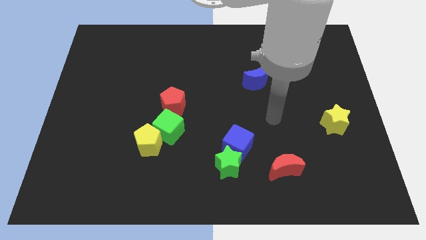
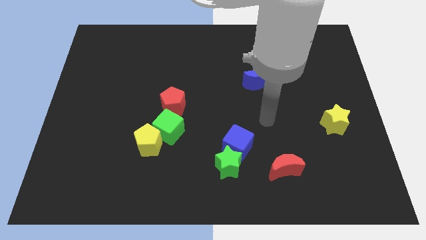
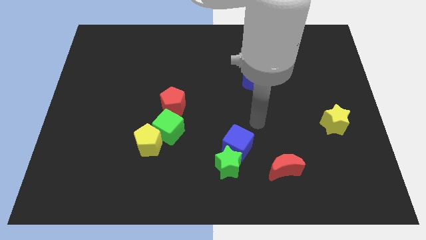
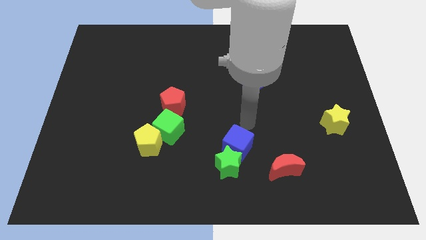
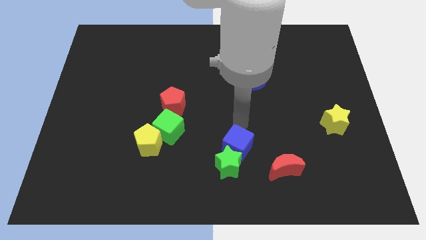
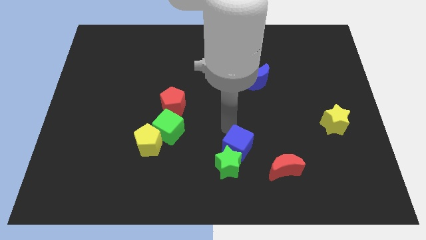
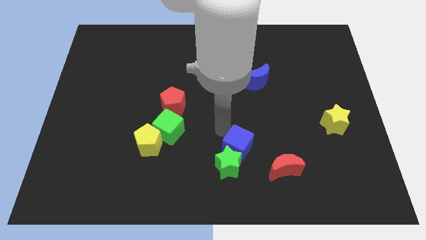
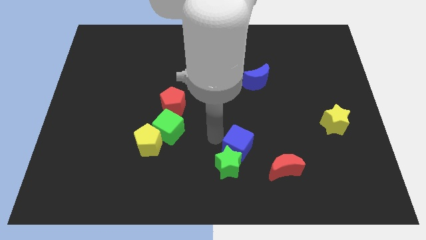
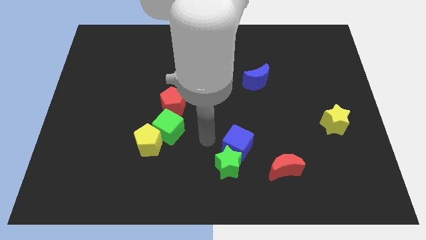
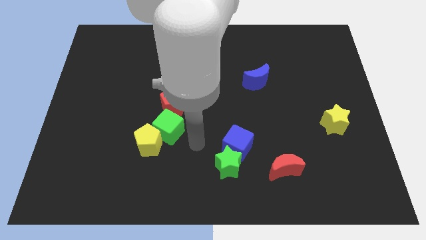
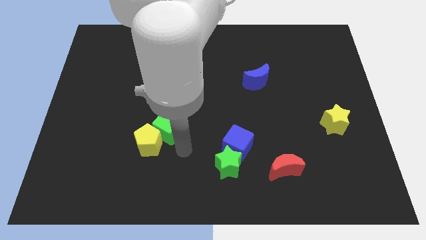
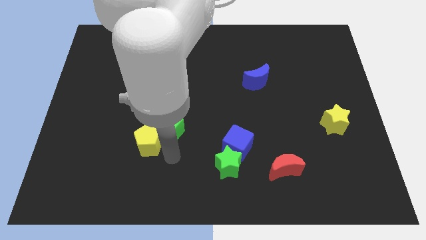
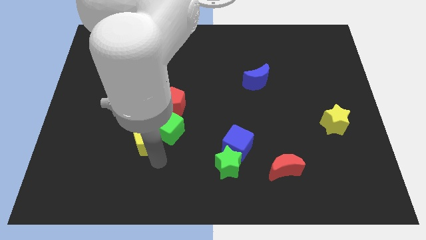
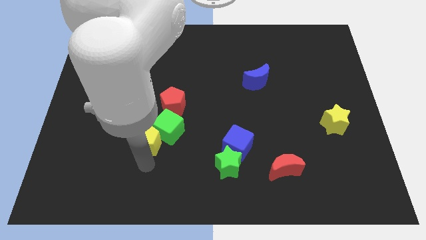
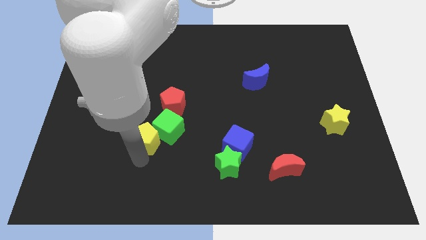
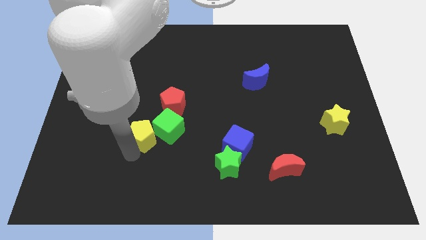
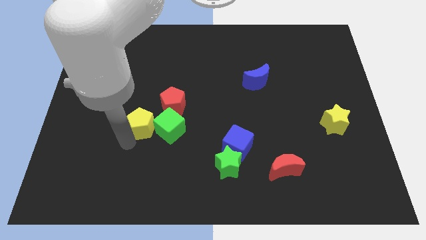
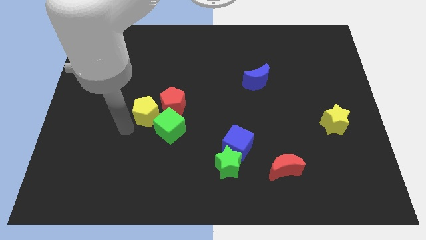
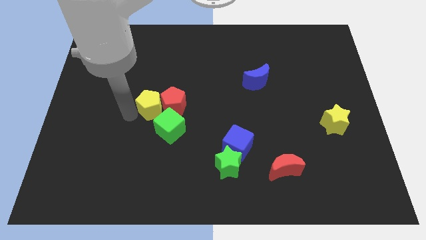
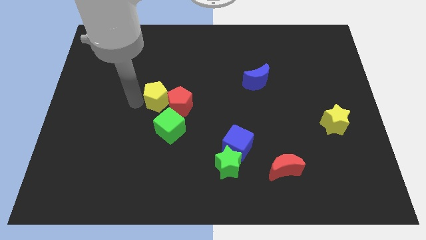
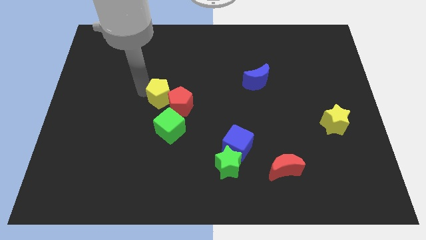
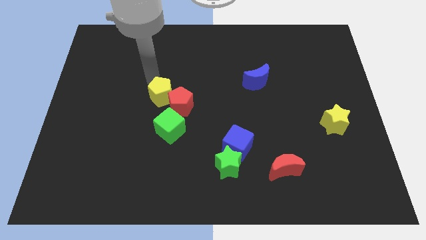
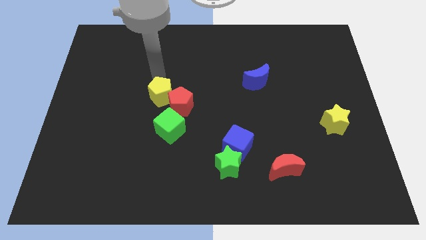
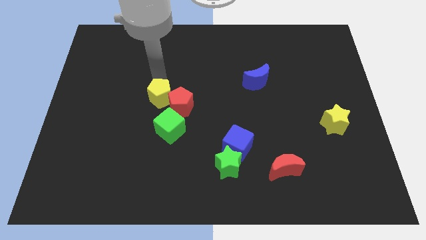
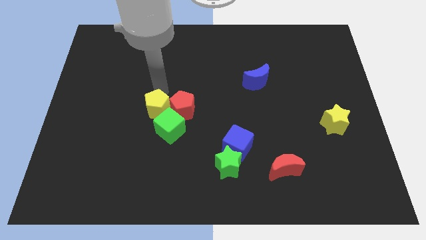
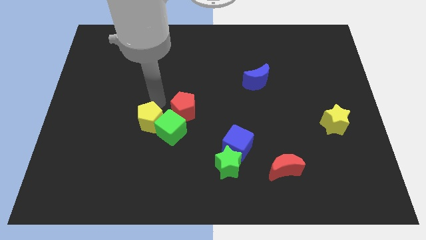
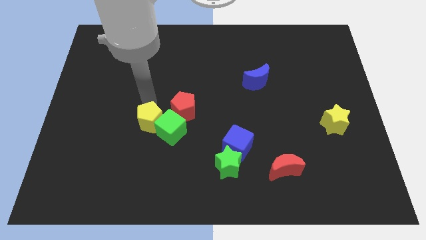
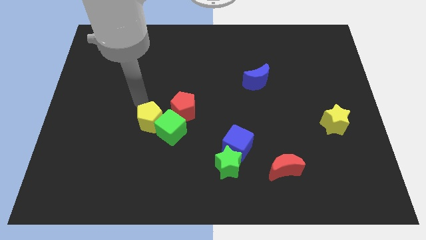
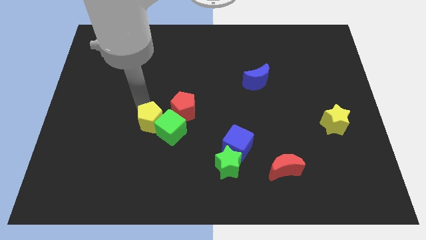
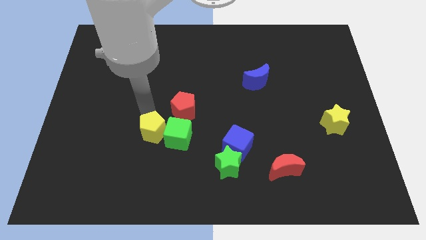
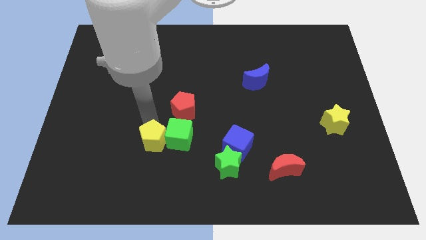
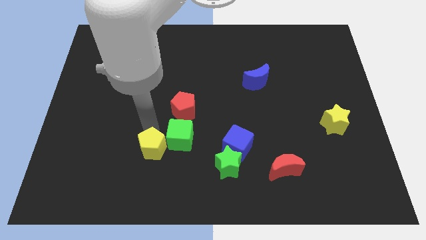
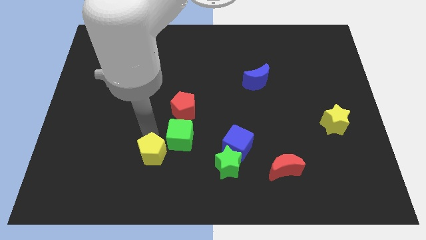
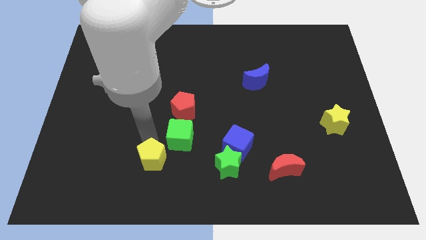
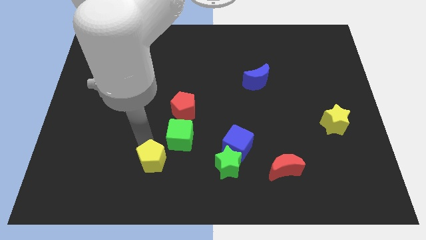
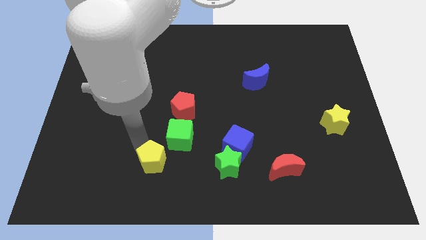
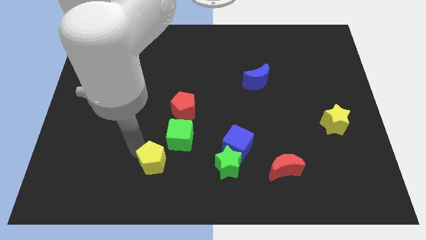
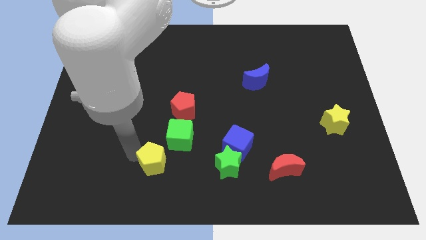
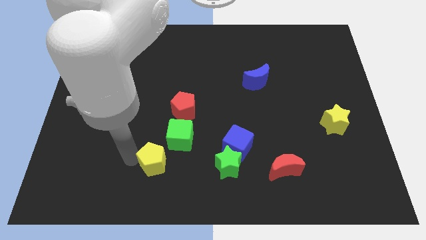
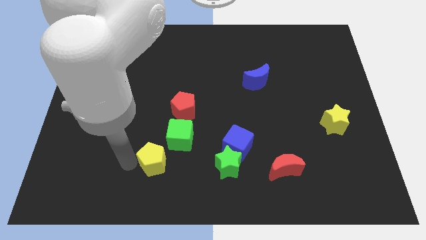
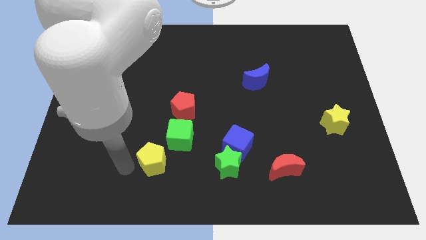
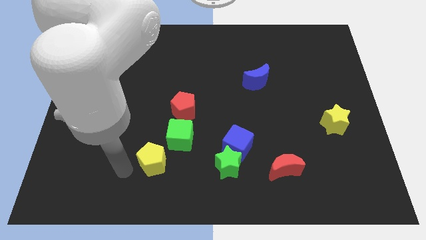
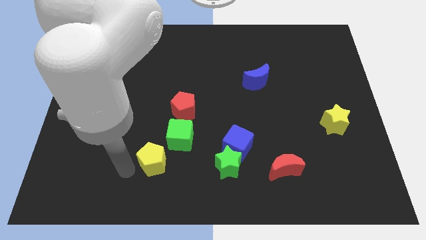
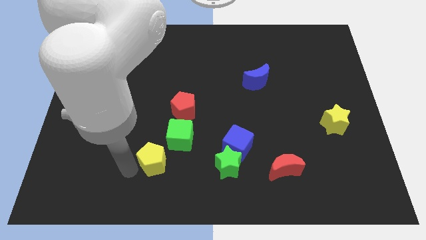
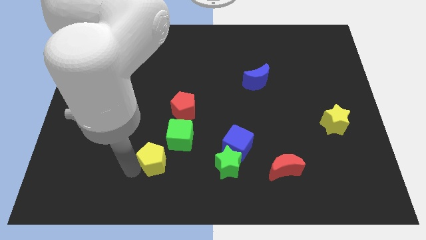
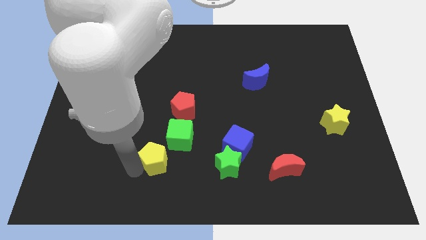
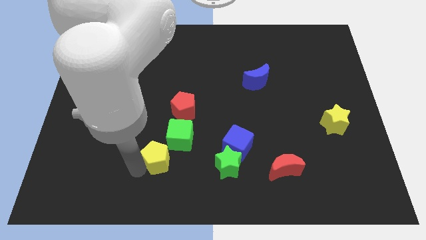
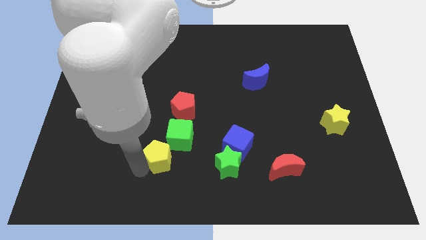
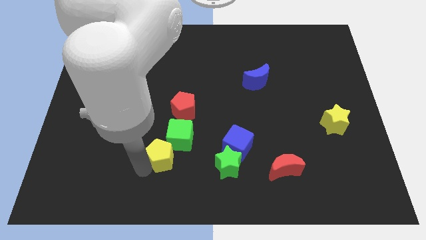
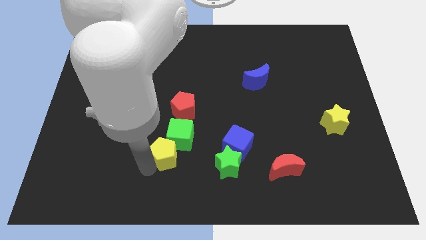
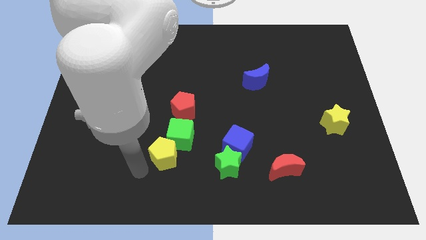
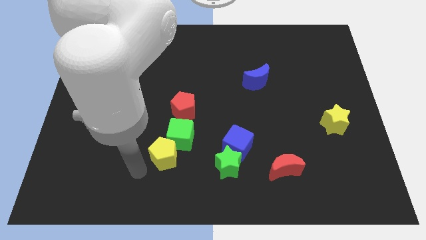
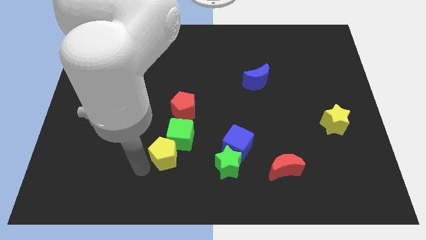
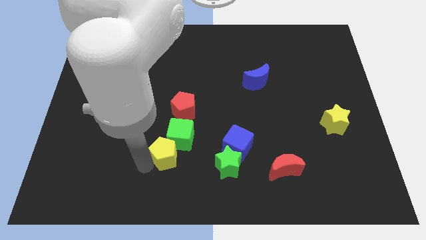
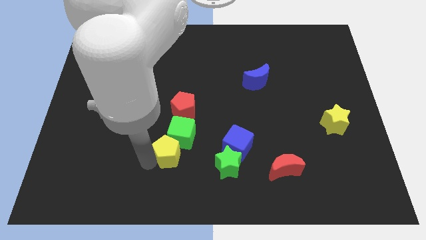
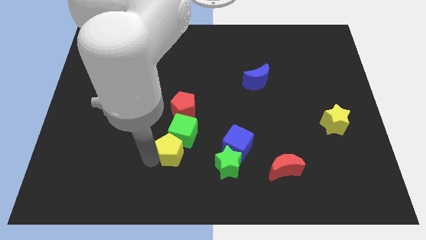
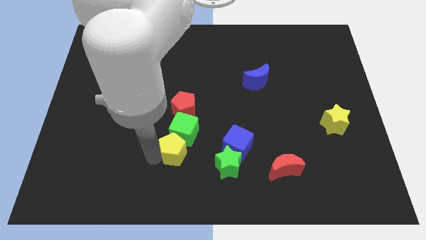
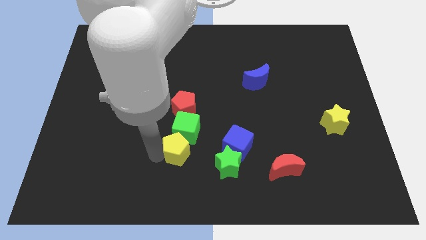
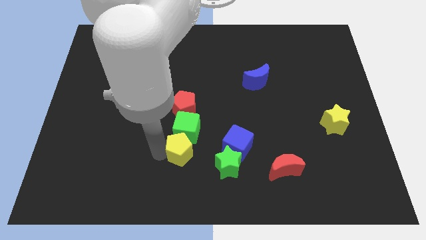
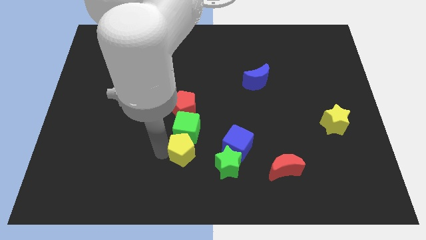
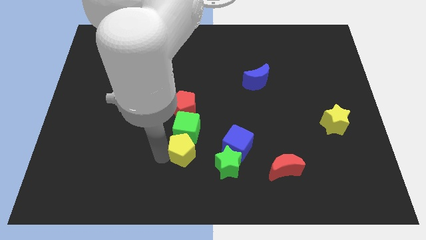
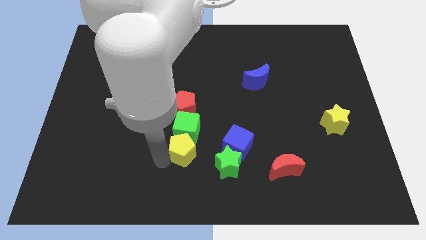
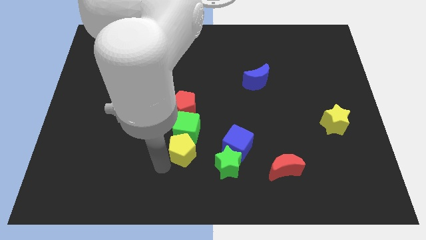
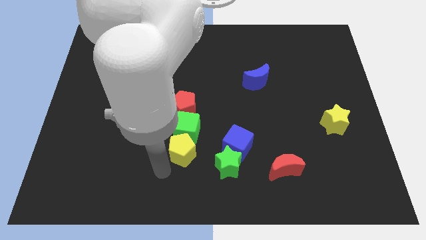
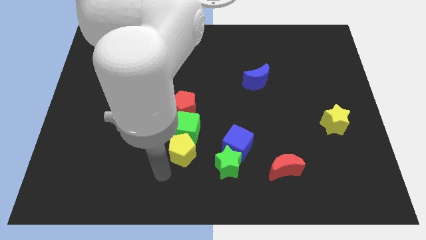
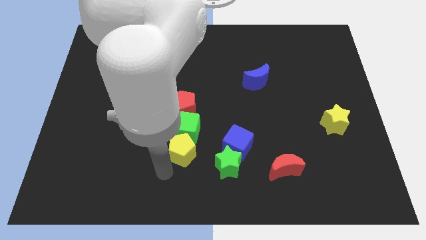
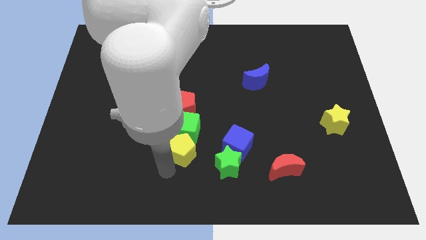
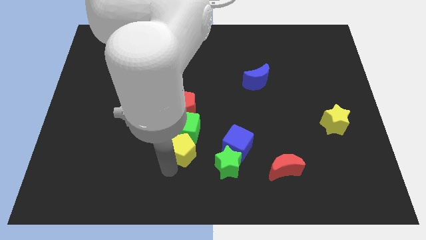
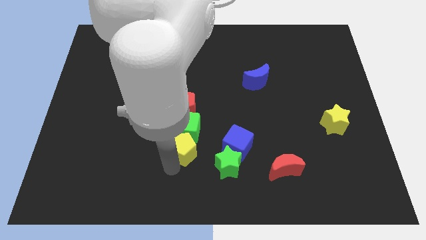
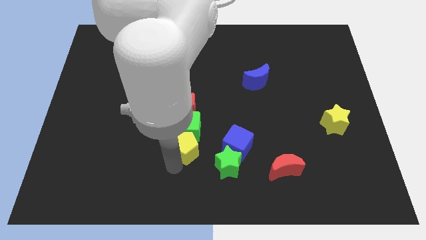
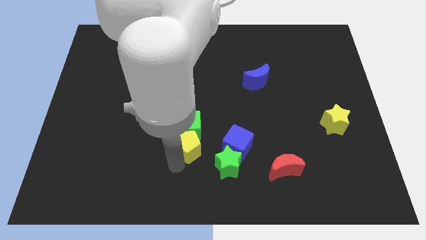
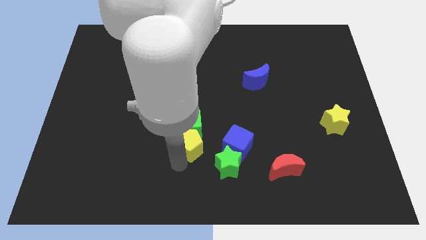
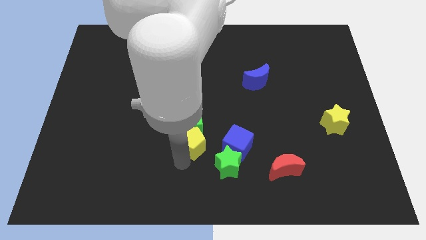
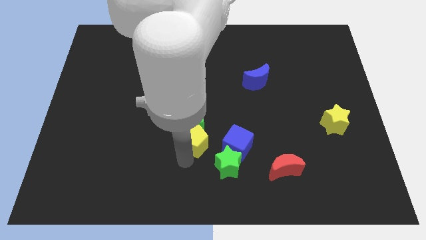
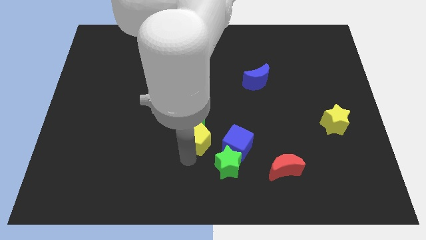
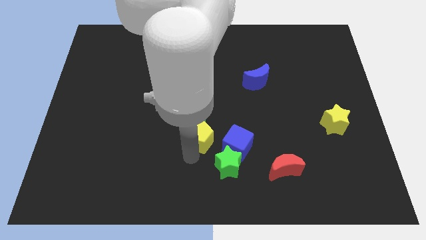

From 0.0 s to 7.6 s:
push the yellow pentagon diagonally up and to the left of the blue cube
